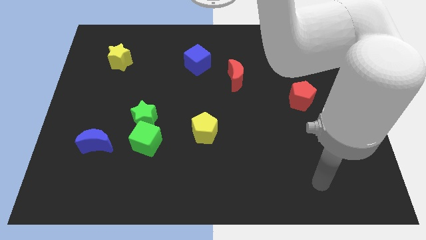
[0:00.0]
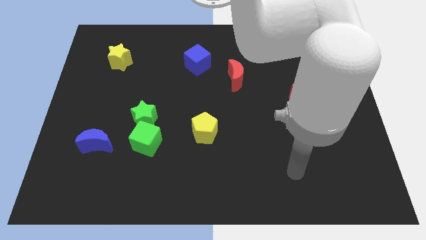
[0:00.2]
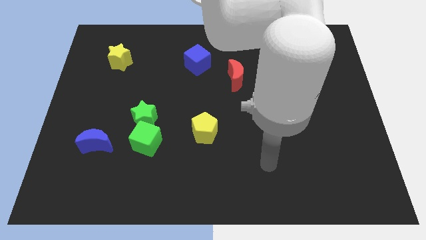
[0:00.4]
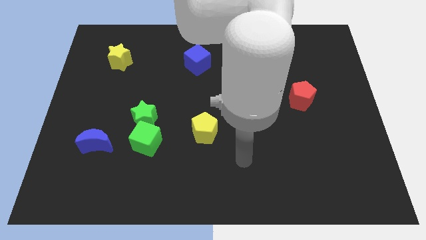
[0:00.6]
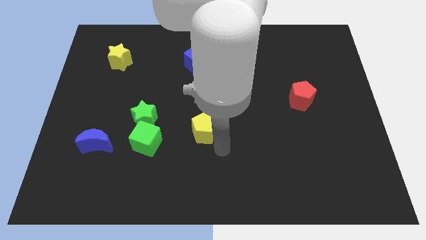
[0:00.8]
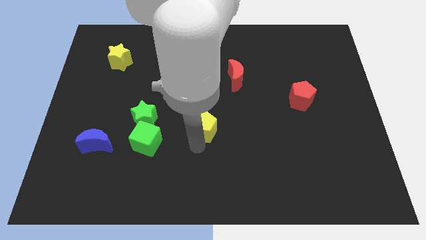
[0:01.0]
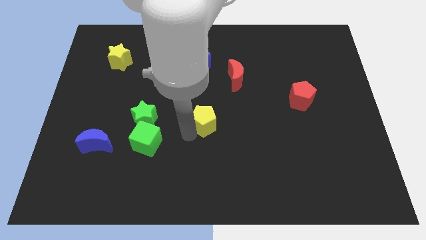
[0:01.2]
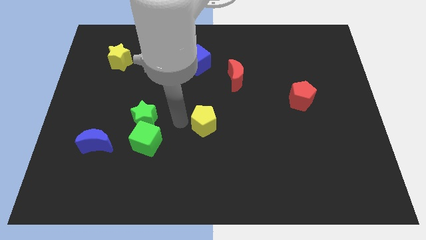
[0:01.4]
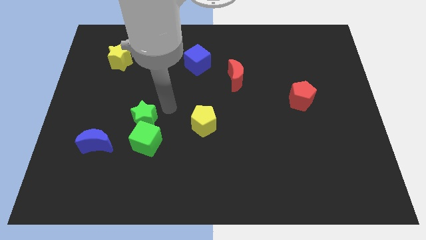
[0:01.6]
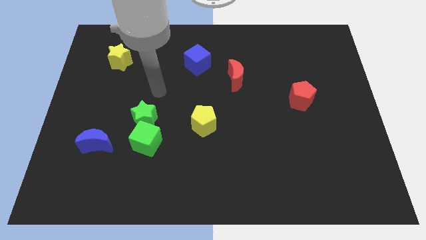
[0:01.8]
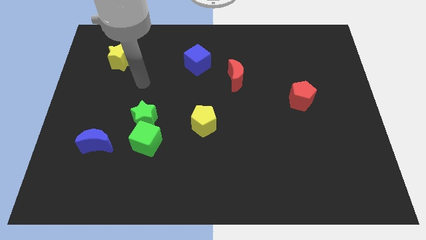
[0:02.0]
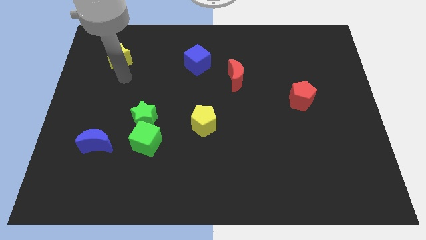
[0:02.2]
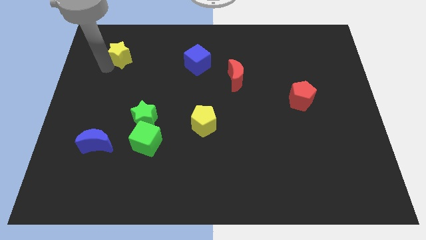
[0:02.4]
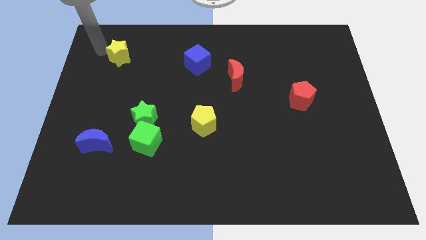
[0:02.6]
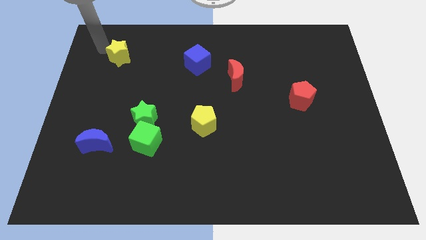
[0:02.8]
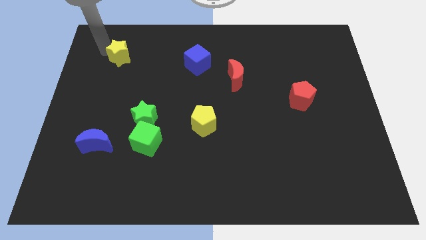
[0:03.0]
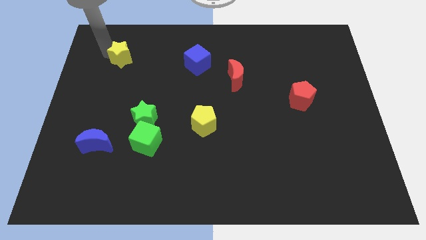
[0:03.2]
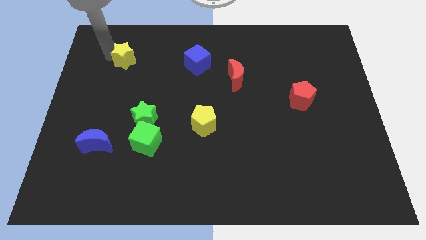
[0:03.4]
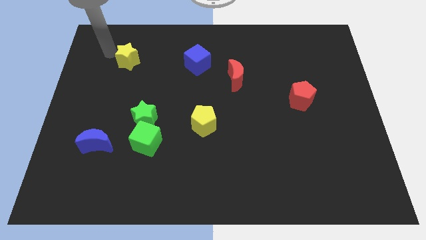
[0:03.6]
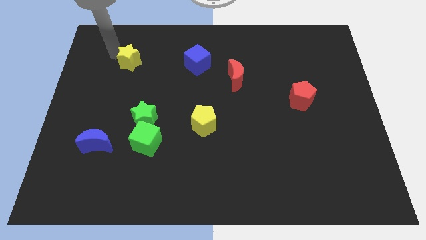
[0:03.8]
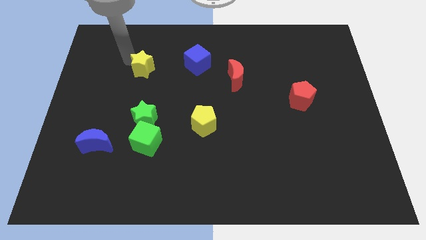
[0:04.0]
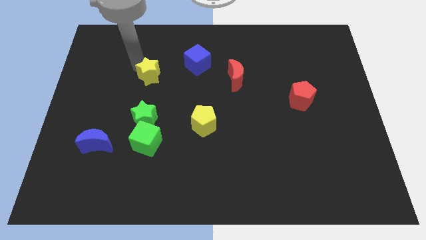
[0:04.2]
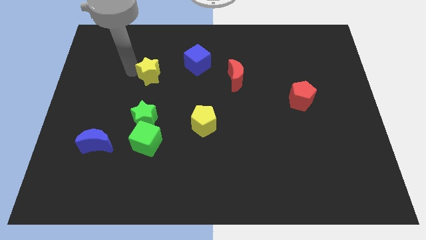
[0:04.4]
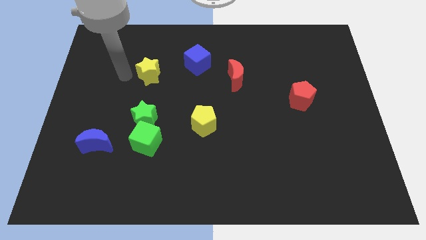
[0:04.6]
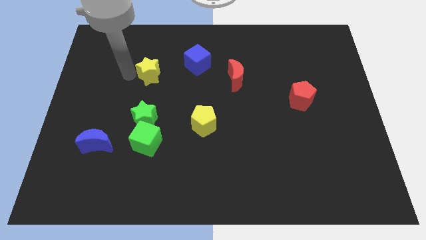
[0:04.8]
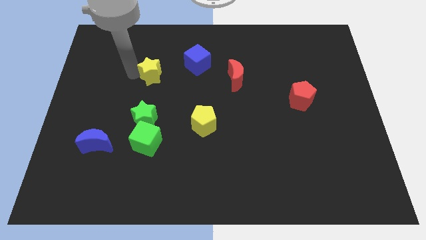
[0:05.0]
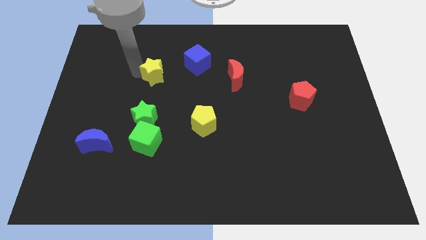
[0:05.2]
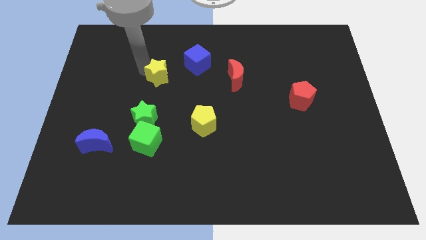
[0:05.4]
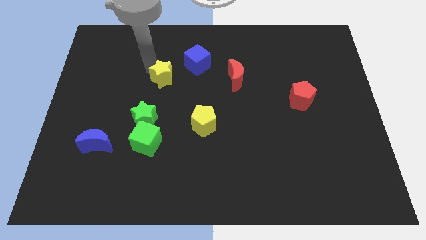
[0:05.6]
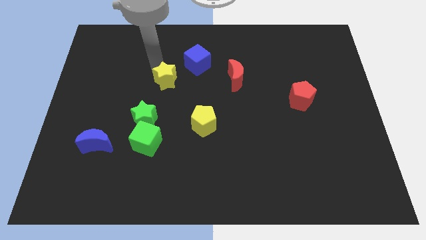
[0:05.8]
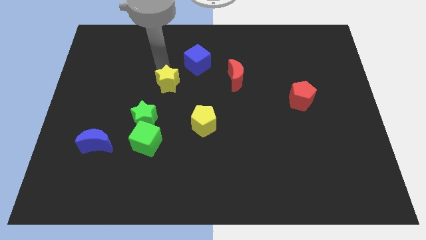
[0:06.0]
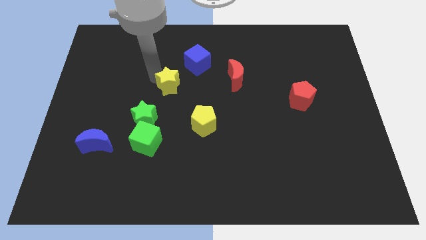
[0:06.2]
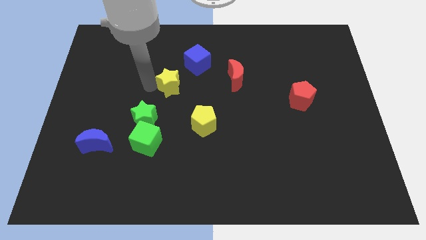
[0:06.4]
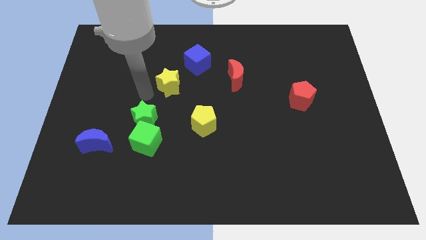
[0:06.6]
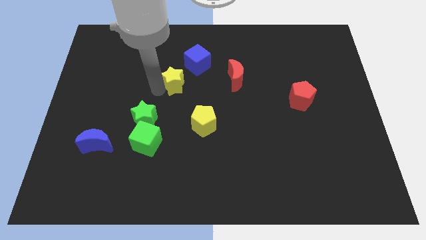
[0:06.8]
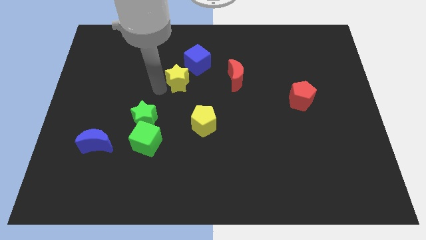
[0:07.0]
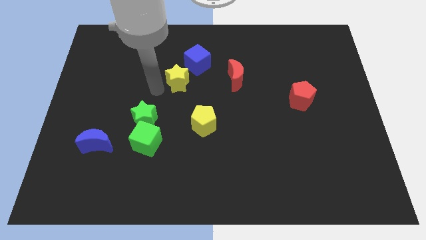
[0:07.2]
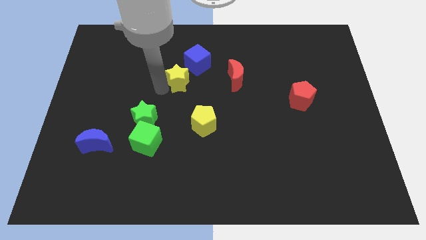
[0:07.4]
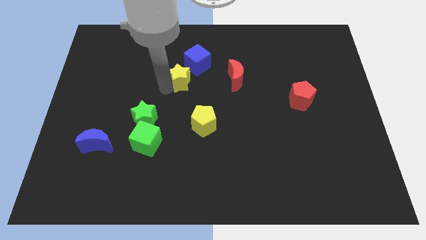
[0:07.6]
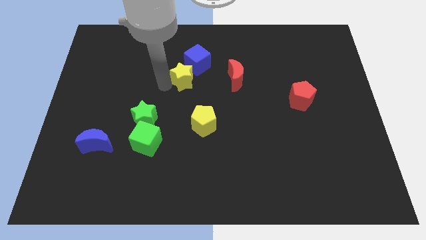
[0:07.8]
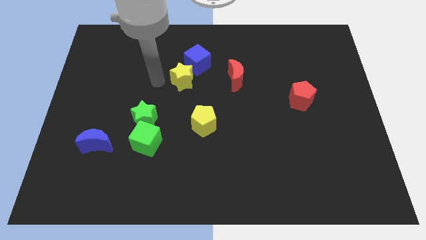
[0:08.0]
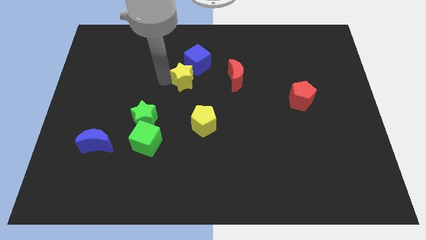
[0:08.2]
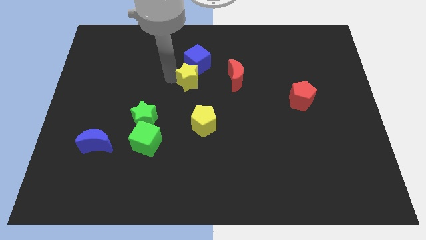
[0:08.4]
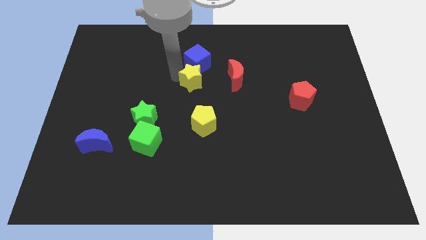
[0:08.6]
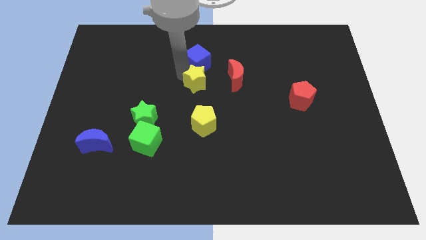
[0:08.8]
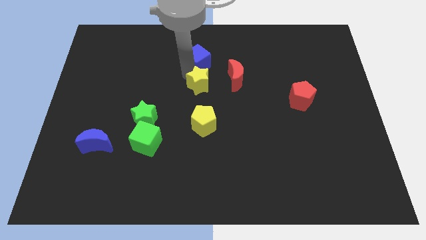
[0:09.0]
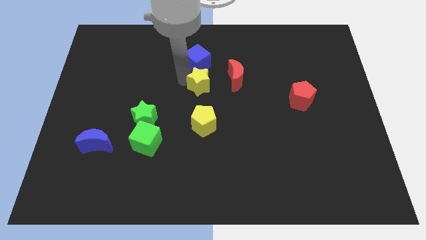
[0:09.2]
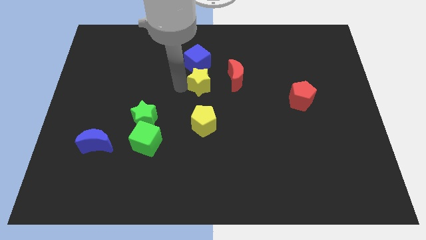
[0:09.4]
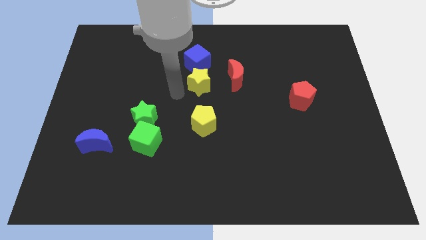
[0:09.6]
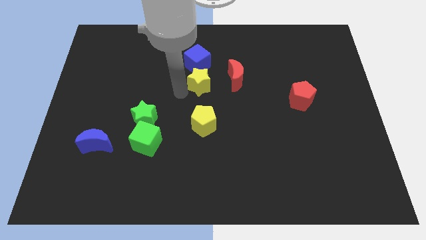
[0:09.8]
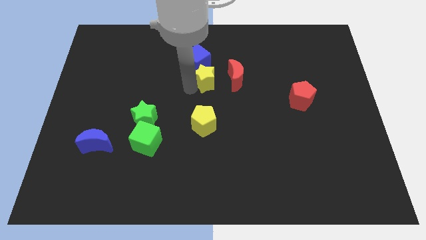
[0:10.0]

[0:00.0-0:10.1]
slide the yellow star to the right

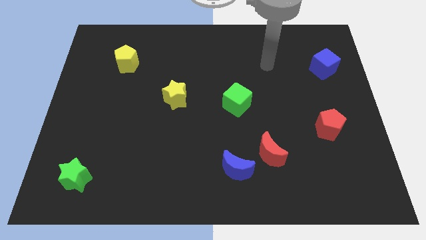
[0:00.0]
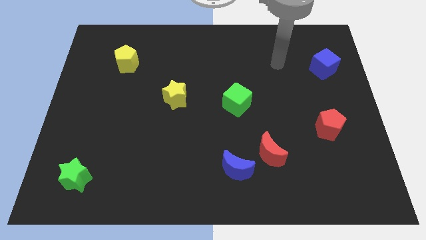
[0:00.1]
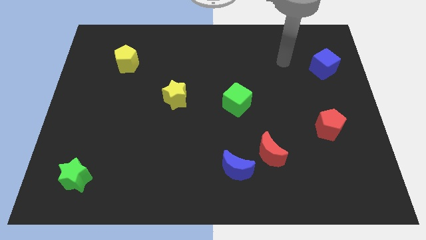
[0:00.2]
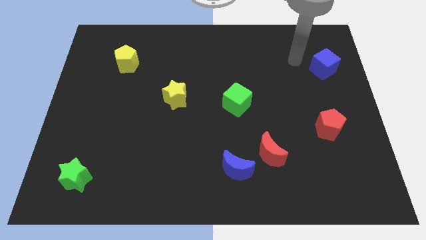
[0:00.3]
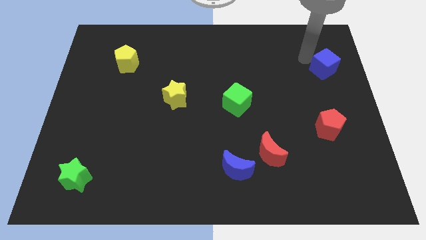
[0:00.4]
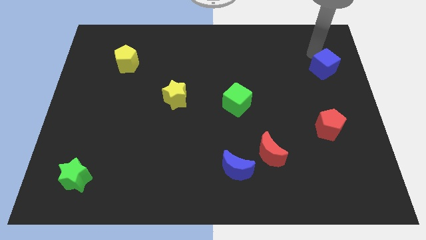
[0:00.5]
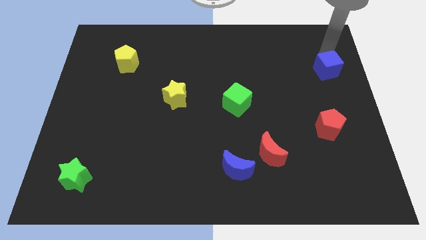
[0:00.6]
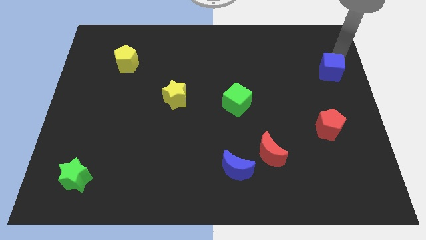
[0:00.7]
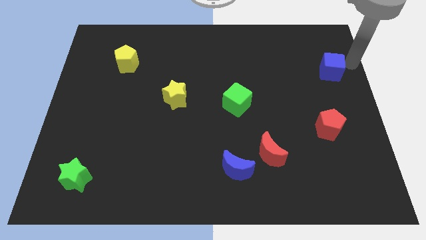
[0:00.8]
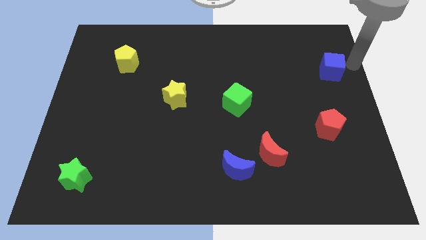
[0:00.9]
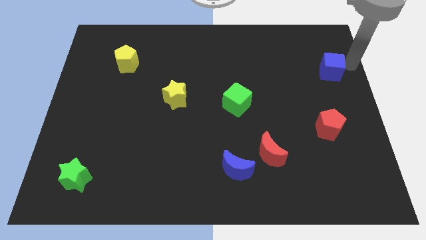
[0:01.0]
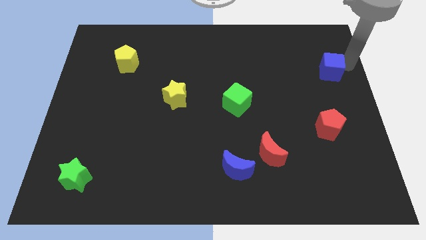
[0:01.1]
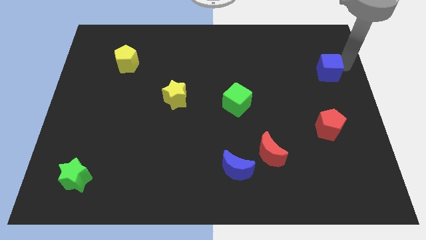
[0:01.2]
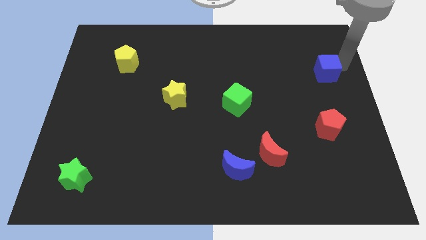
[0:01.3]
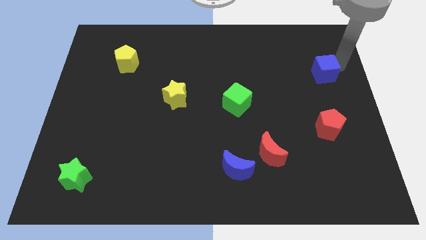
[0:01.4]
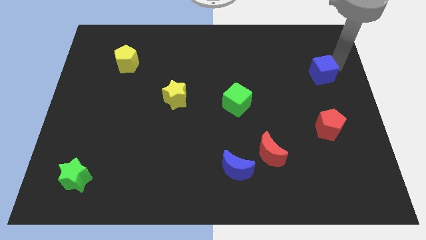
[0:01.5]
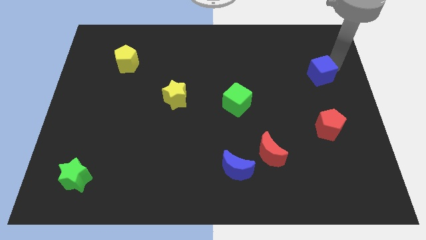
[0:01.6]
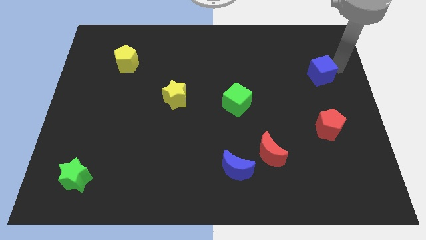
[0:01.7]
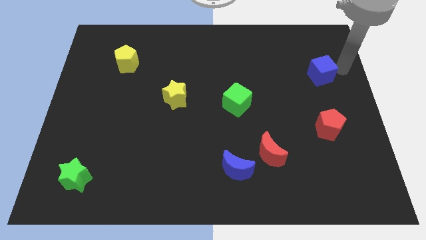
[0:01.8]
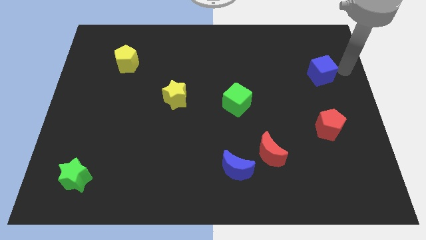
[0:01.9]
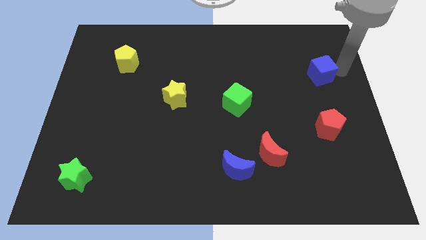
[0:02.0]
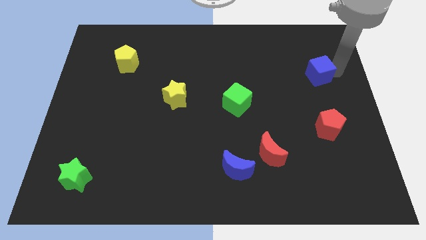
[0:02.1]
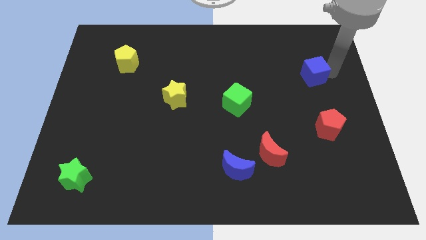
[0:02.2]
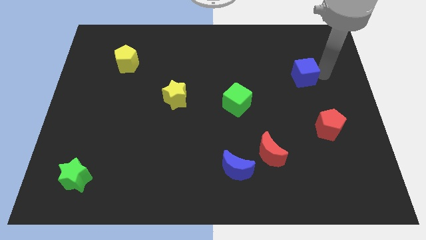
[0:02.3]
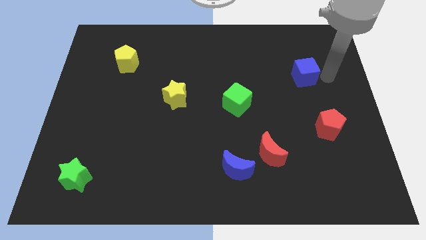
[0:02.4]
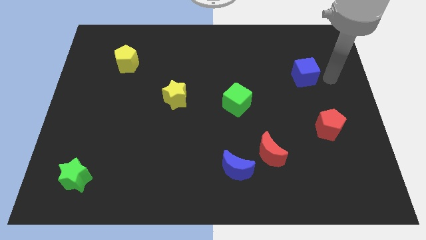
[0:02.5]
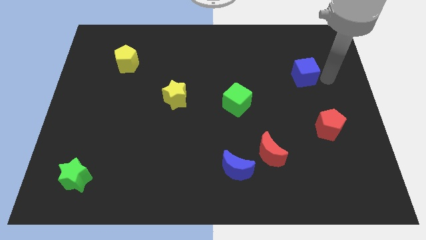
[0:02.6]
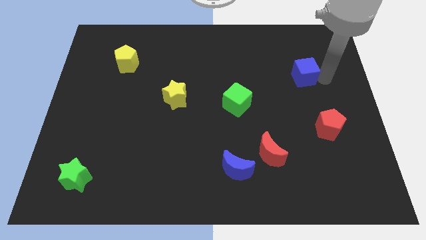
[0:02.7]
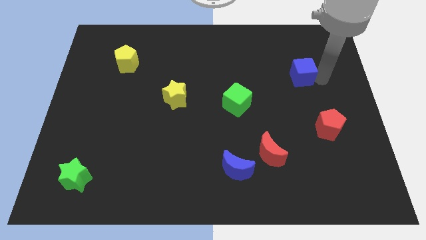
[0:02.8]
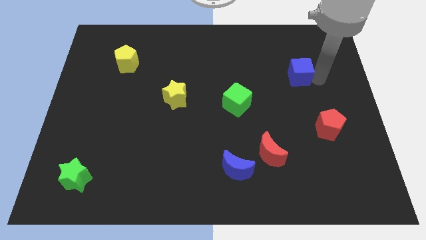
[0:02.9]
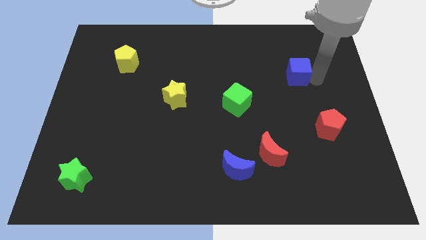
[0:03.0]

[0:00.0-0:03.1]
slide the blue cube a little bit to the left
